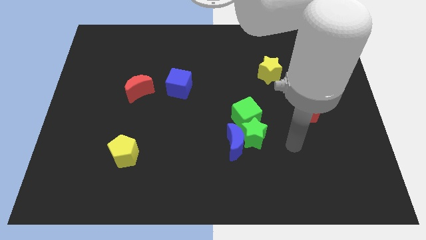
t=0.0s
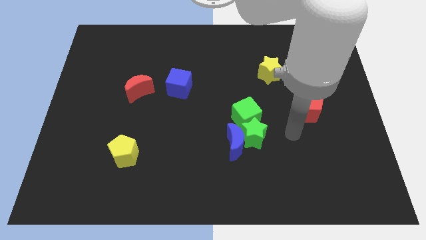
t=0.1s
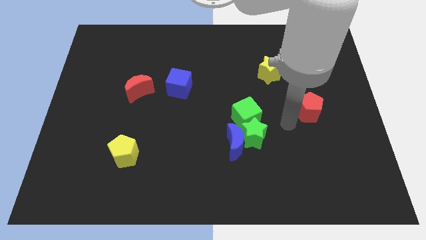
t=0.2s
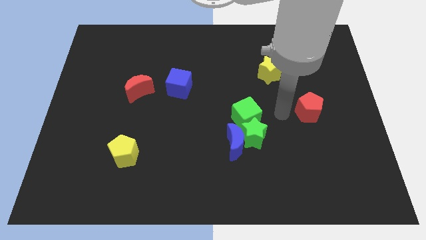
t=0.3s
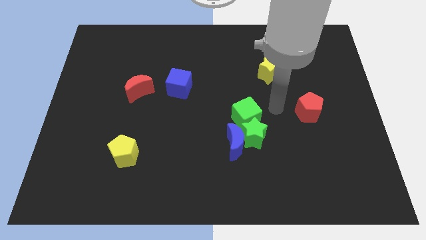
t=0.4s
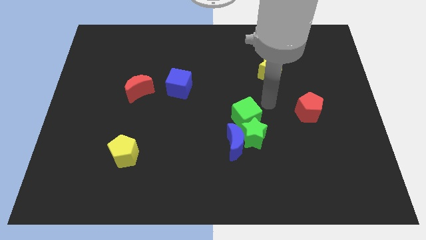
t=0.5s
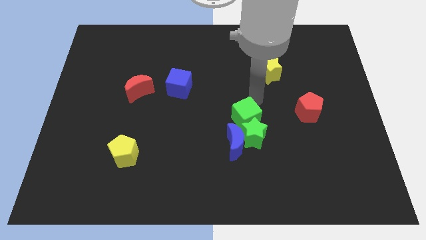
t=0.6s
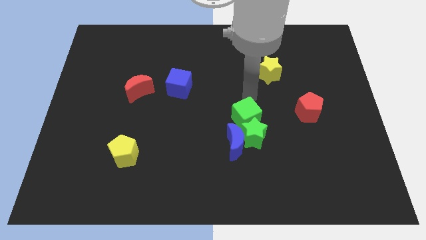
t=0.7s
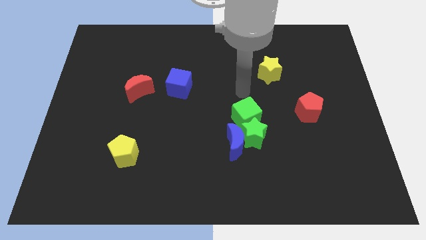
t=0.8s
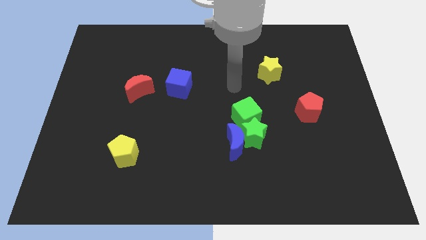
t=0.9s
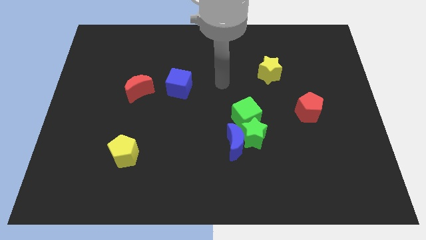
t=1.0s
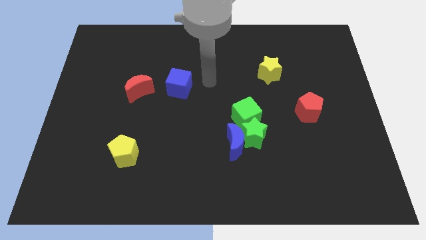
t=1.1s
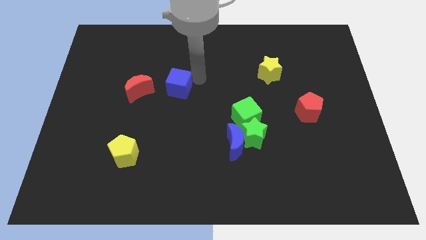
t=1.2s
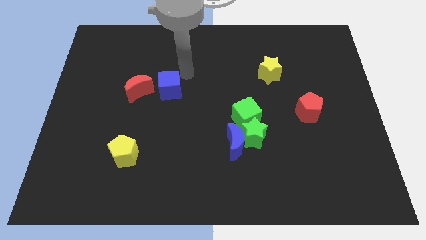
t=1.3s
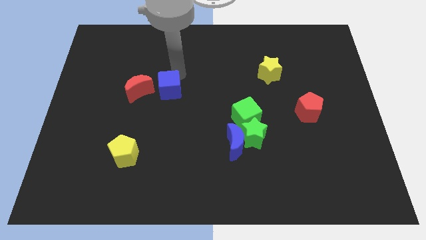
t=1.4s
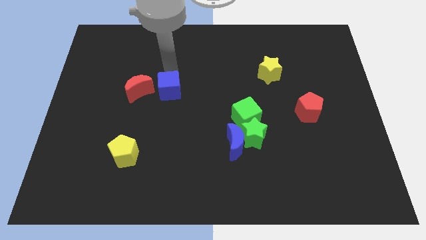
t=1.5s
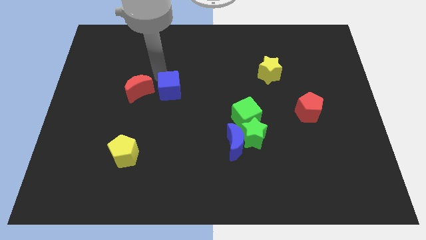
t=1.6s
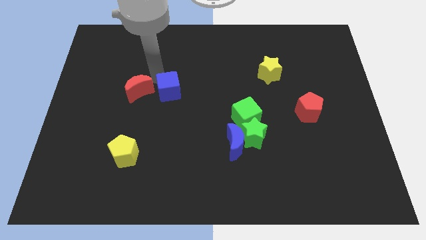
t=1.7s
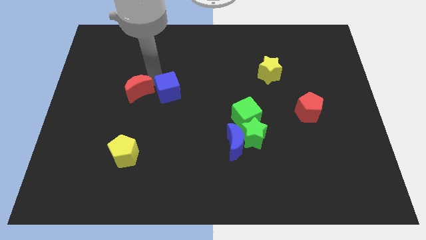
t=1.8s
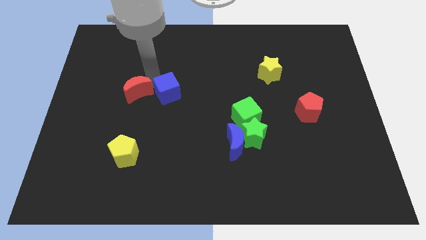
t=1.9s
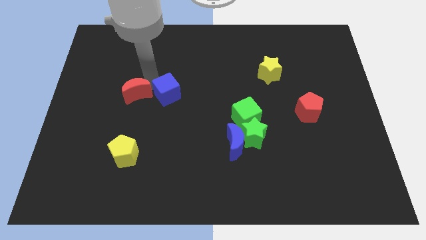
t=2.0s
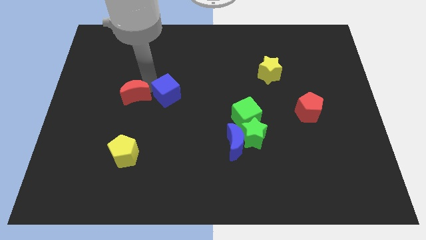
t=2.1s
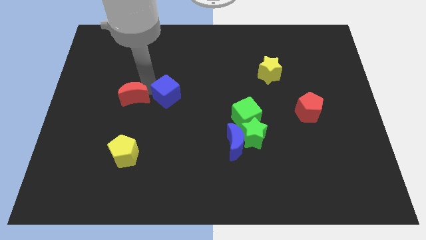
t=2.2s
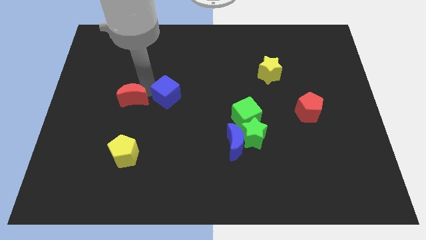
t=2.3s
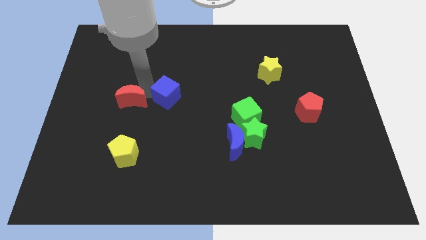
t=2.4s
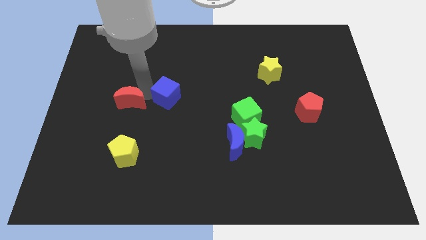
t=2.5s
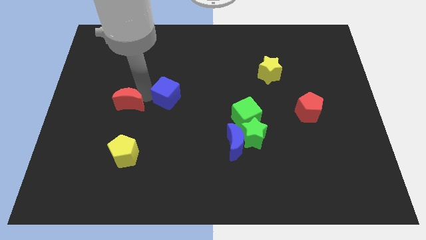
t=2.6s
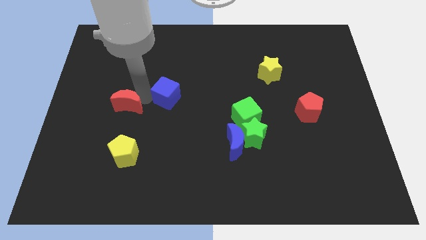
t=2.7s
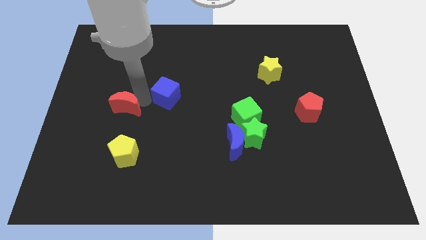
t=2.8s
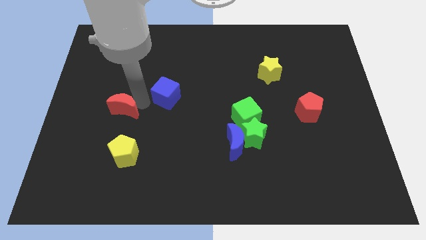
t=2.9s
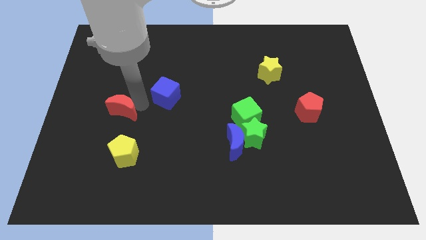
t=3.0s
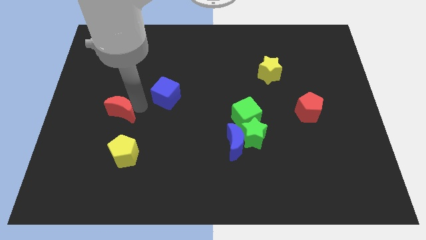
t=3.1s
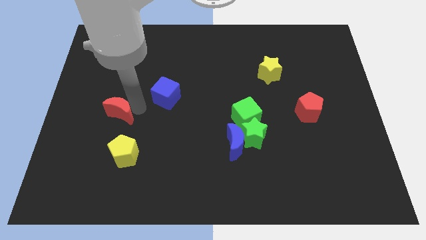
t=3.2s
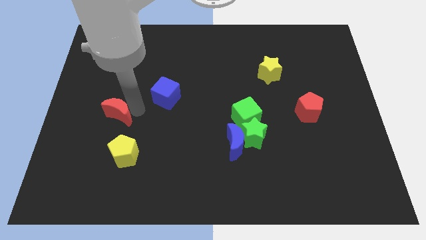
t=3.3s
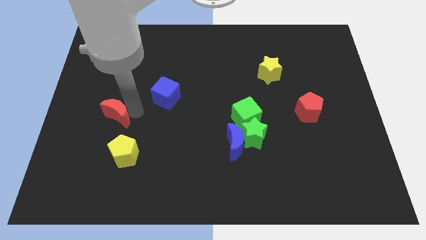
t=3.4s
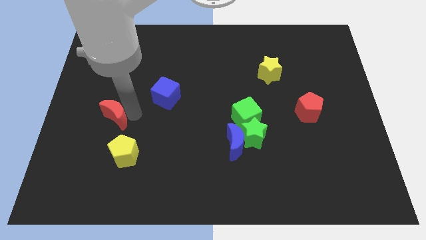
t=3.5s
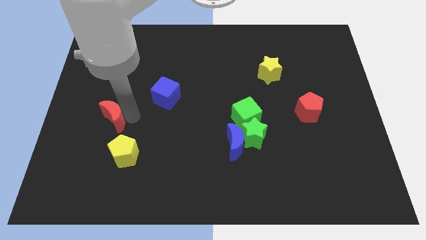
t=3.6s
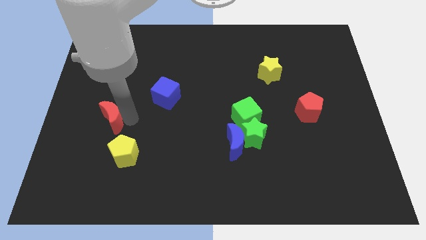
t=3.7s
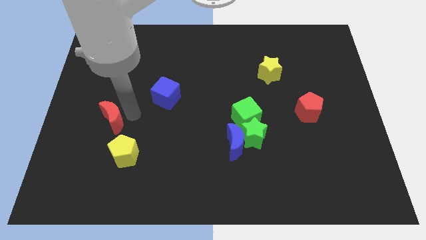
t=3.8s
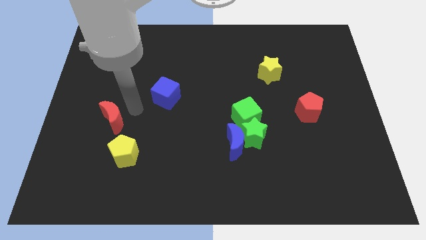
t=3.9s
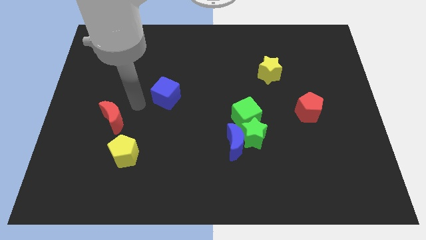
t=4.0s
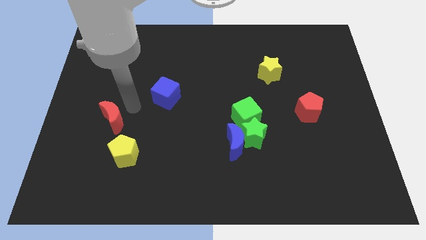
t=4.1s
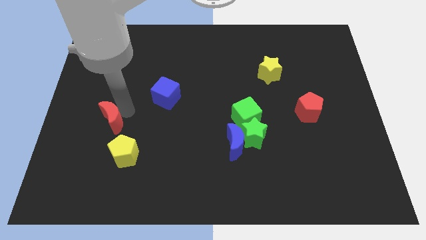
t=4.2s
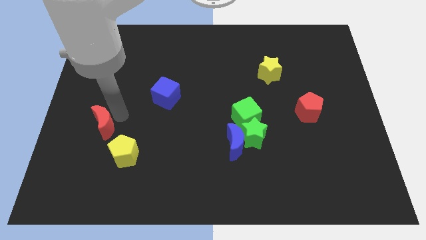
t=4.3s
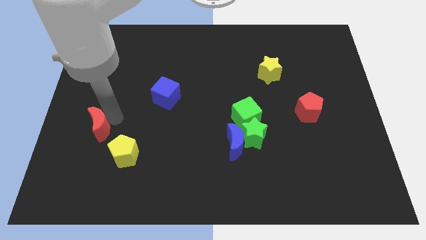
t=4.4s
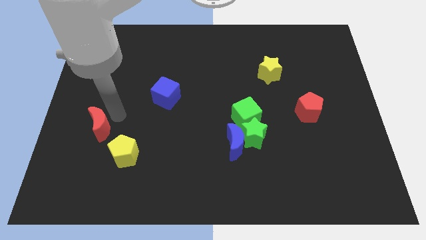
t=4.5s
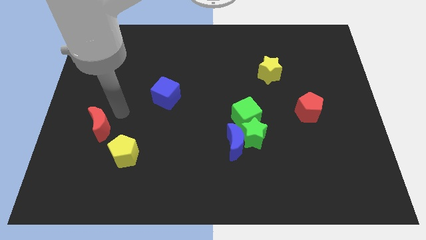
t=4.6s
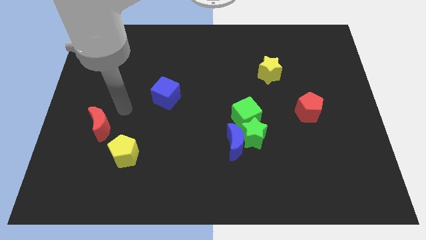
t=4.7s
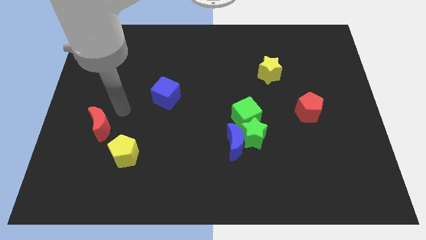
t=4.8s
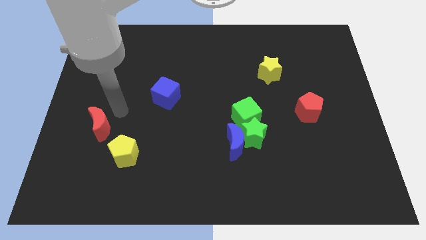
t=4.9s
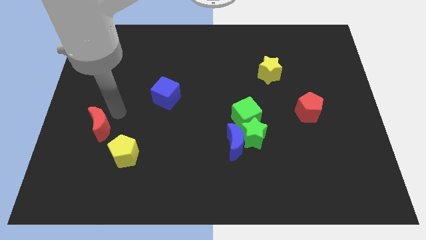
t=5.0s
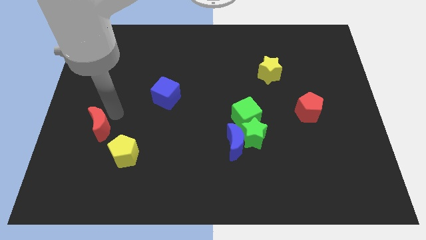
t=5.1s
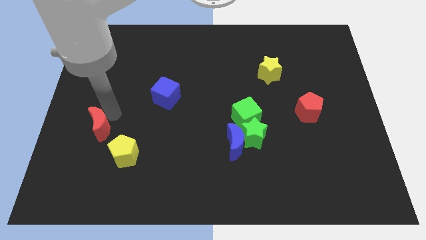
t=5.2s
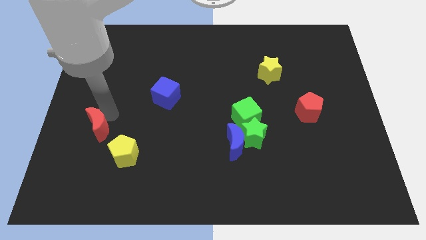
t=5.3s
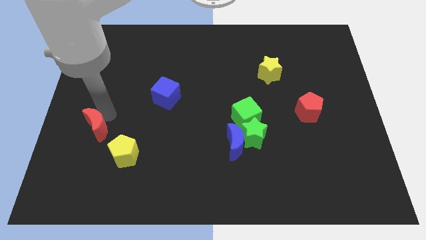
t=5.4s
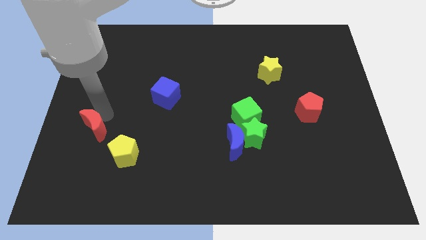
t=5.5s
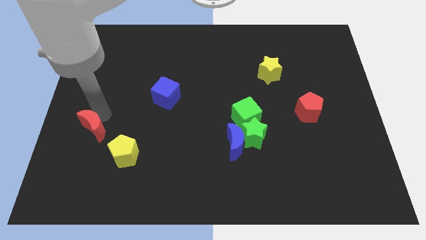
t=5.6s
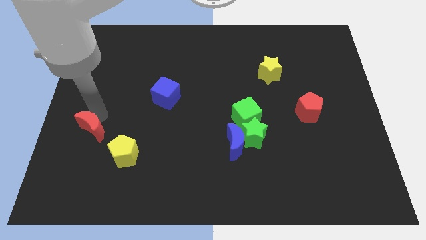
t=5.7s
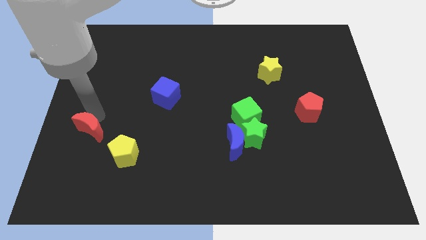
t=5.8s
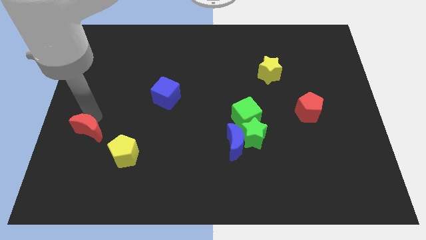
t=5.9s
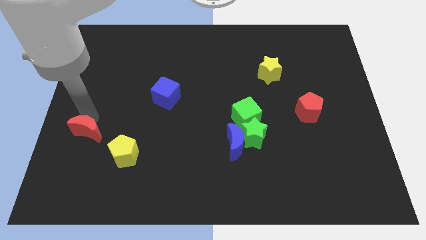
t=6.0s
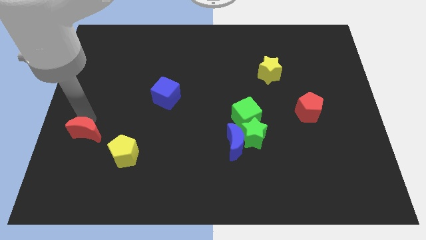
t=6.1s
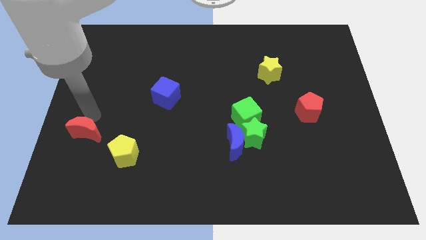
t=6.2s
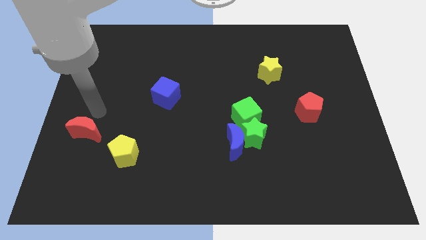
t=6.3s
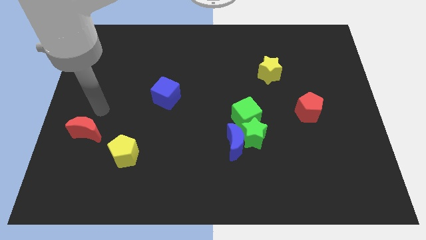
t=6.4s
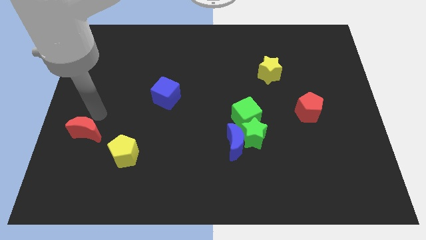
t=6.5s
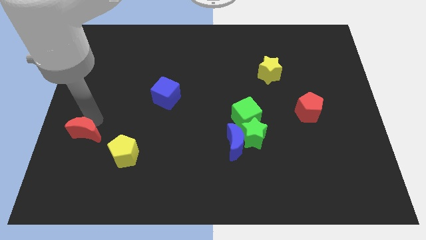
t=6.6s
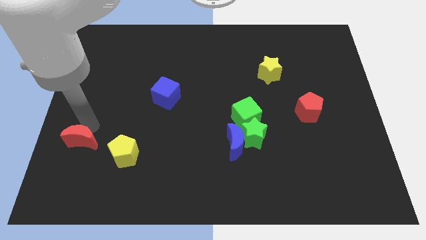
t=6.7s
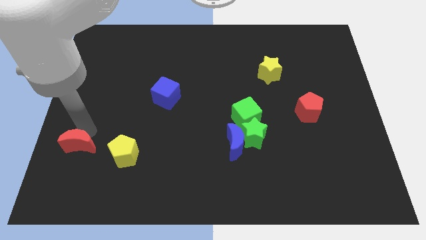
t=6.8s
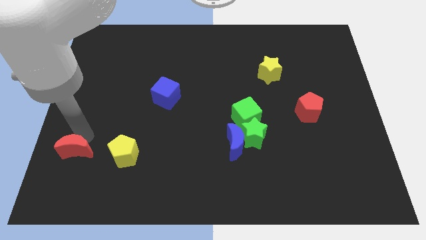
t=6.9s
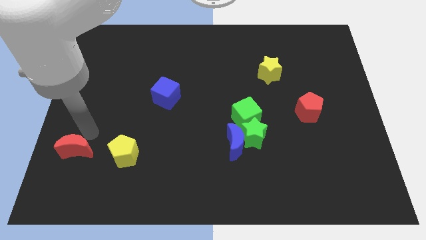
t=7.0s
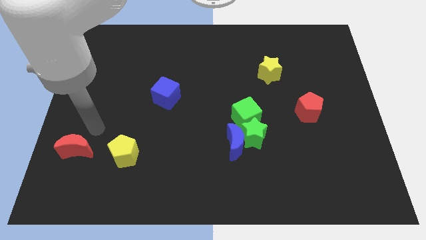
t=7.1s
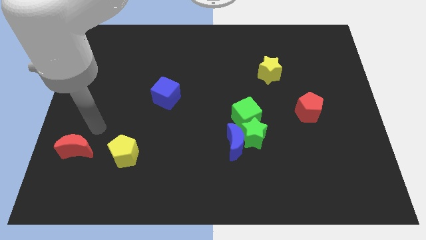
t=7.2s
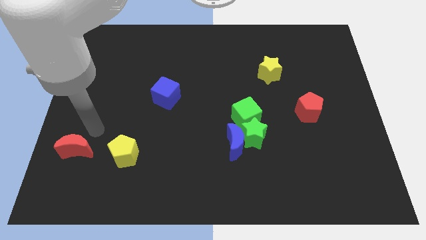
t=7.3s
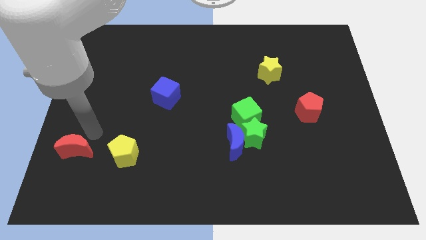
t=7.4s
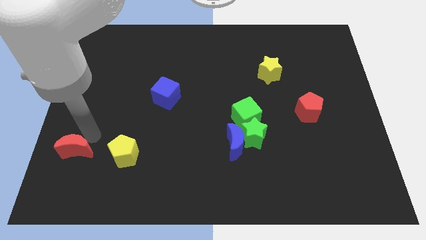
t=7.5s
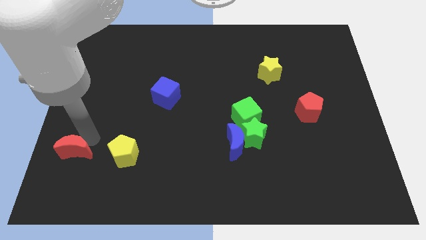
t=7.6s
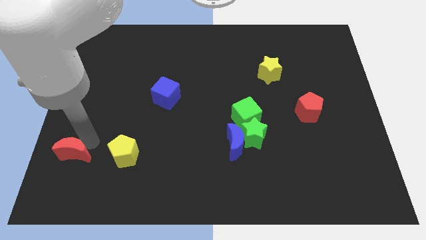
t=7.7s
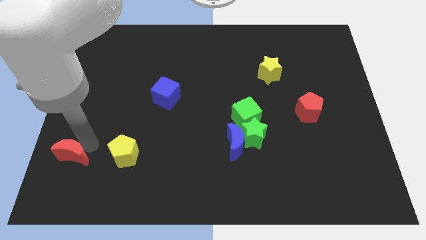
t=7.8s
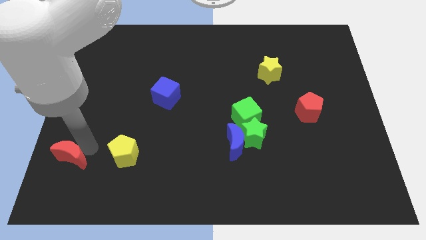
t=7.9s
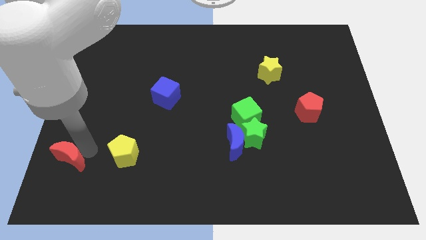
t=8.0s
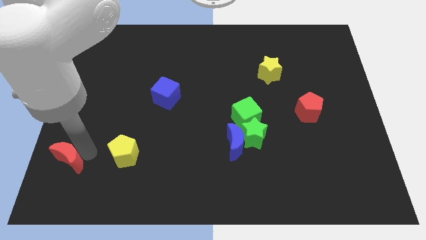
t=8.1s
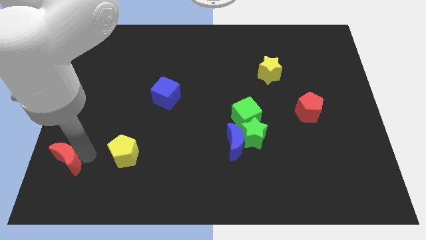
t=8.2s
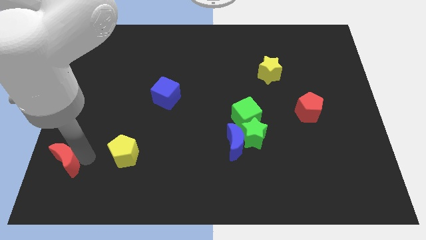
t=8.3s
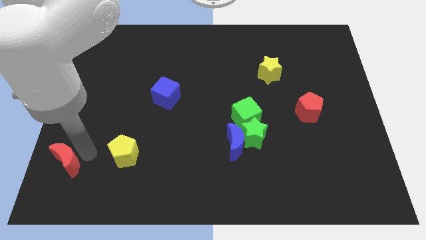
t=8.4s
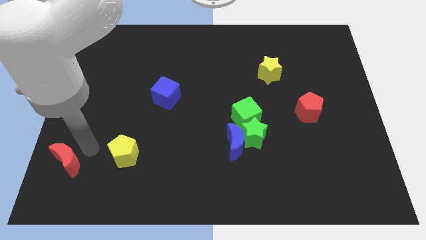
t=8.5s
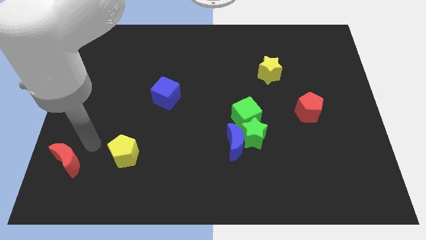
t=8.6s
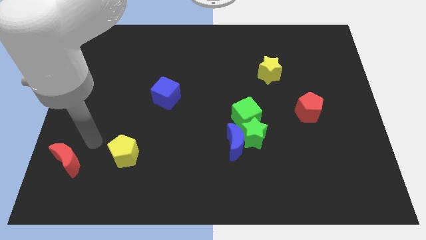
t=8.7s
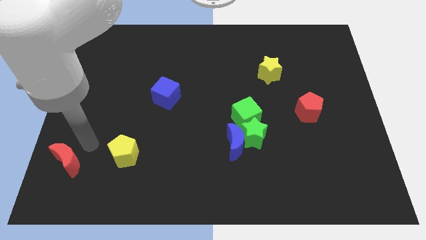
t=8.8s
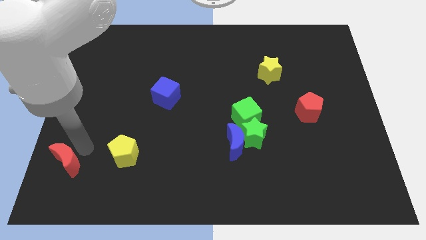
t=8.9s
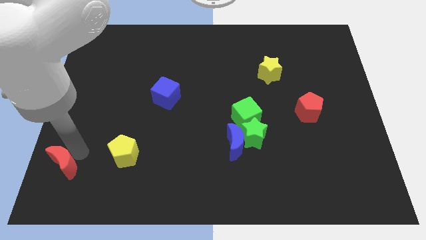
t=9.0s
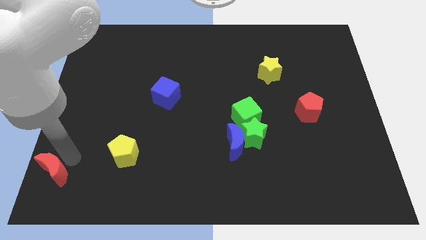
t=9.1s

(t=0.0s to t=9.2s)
put the red moon to the lower left corner
